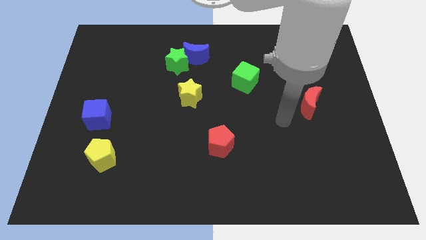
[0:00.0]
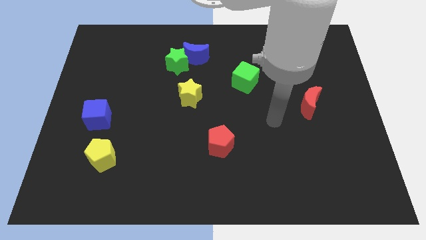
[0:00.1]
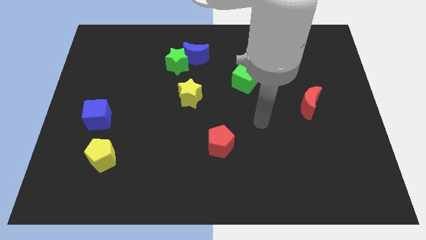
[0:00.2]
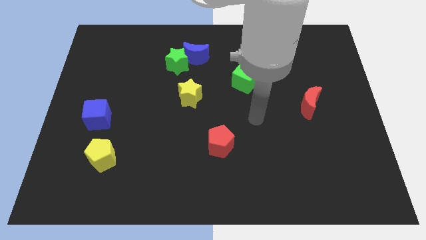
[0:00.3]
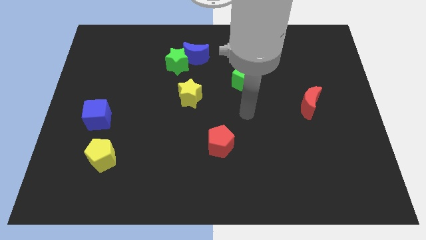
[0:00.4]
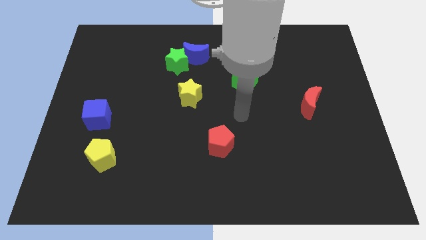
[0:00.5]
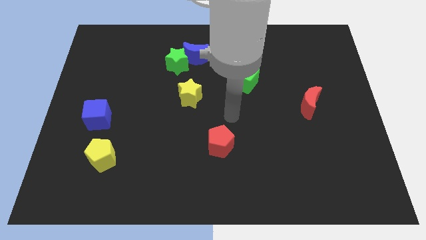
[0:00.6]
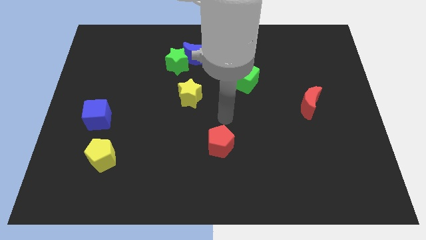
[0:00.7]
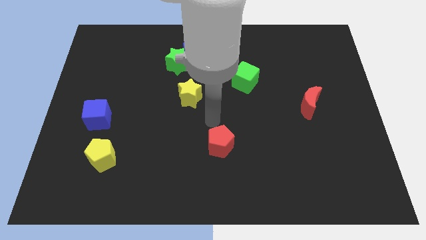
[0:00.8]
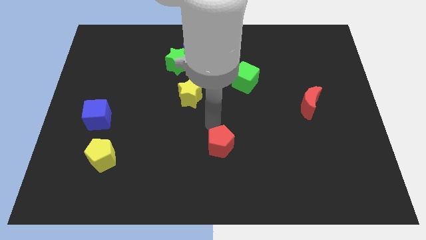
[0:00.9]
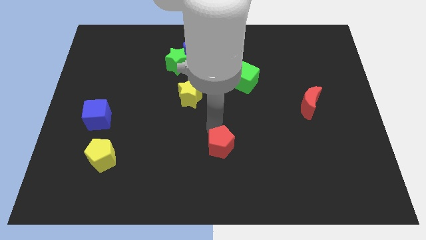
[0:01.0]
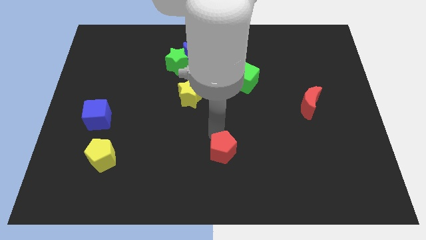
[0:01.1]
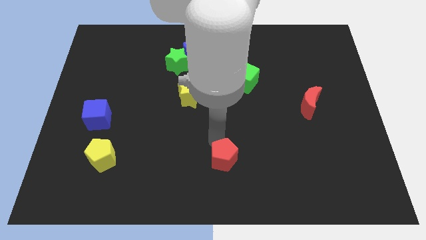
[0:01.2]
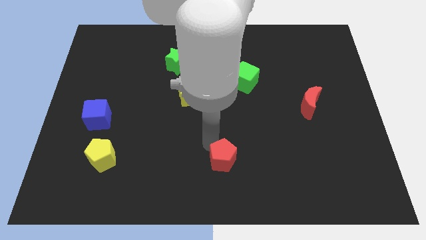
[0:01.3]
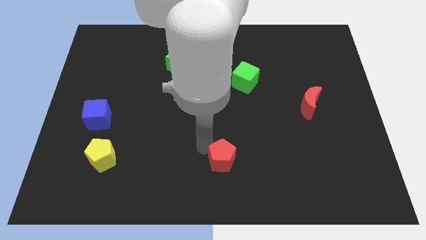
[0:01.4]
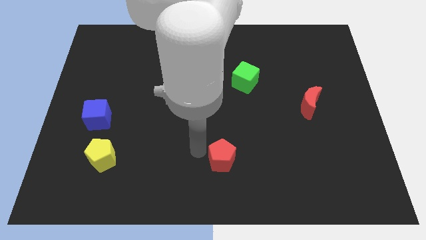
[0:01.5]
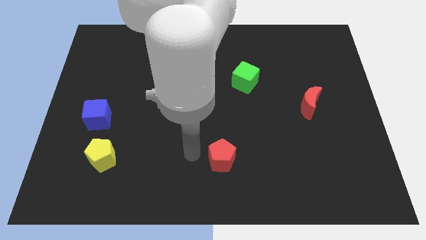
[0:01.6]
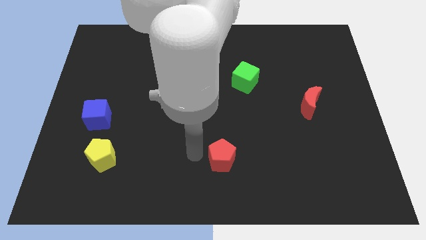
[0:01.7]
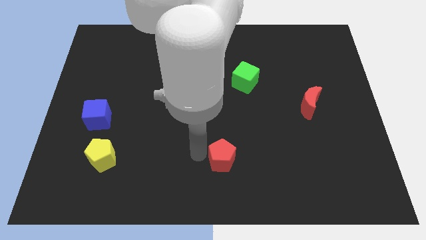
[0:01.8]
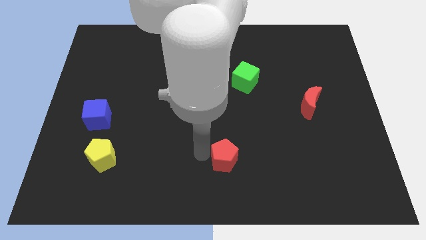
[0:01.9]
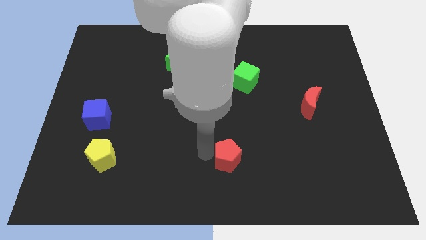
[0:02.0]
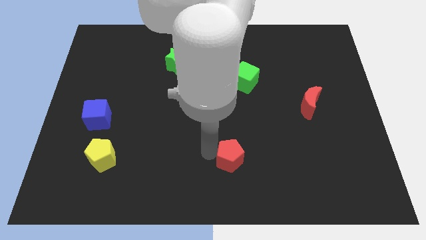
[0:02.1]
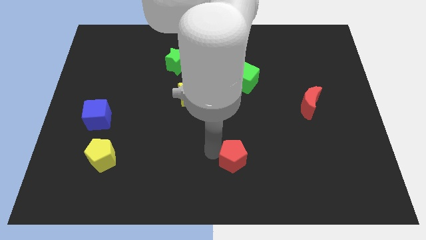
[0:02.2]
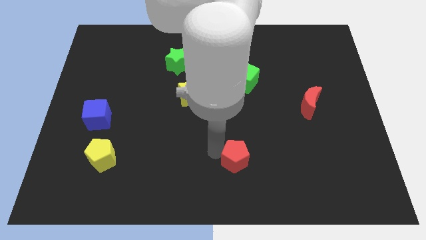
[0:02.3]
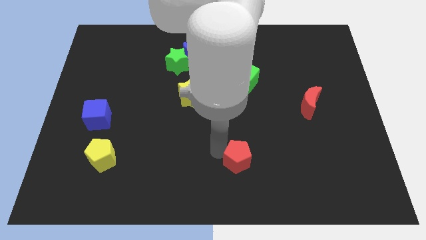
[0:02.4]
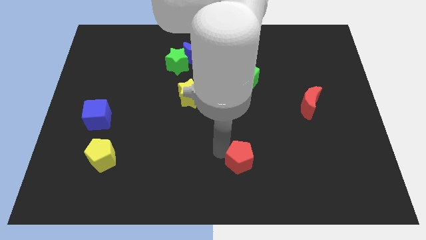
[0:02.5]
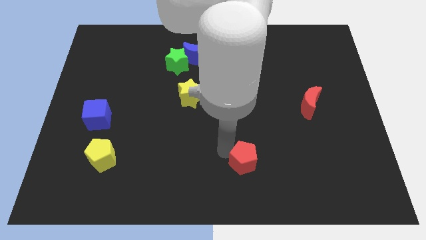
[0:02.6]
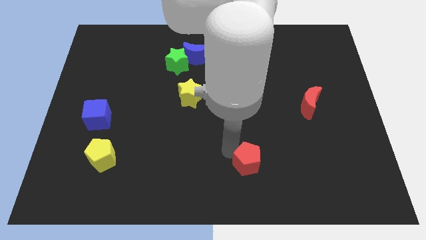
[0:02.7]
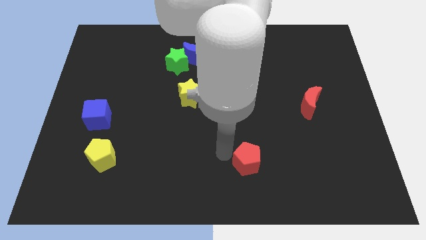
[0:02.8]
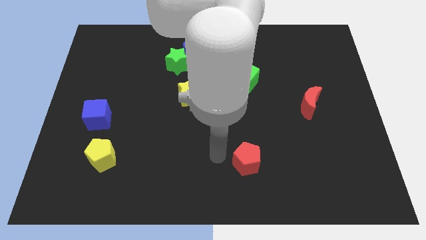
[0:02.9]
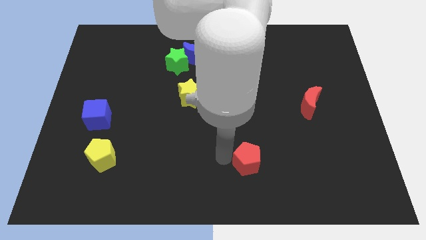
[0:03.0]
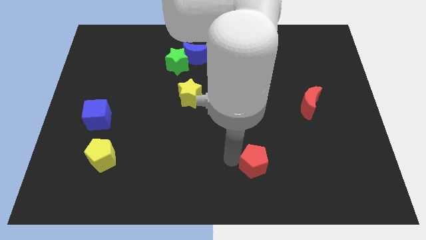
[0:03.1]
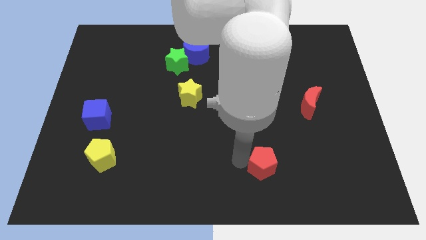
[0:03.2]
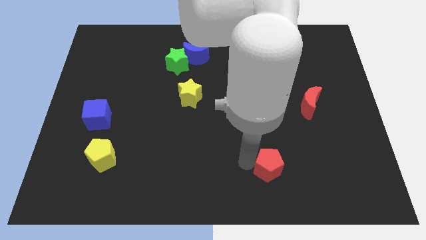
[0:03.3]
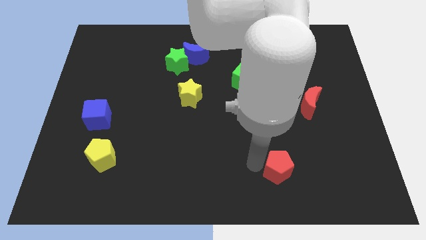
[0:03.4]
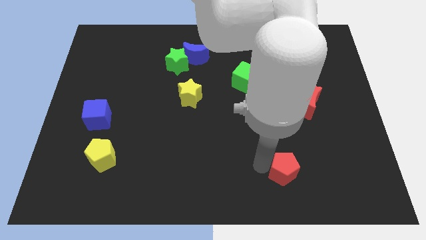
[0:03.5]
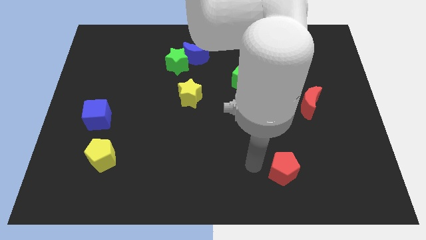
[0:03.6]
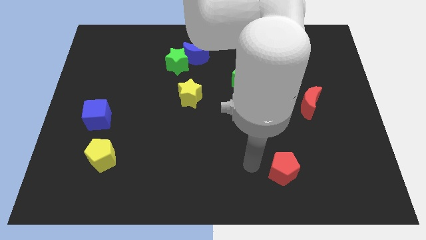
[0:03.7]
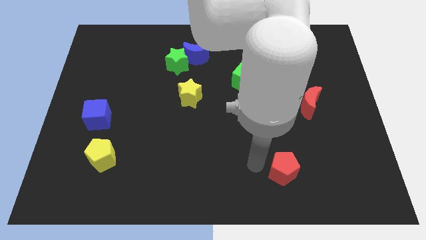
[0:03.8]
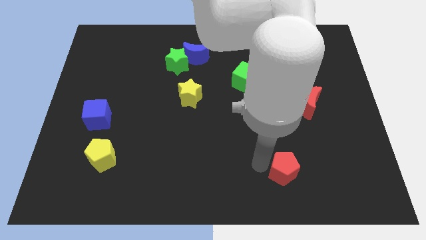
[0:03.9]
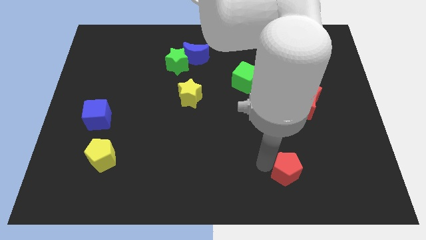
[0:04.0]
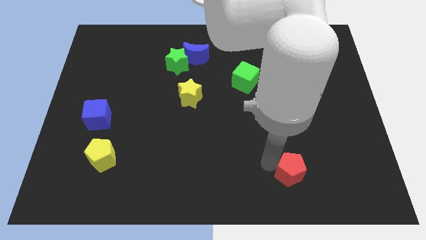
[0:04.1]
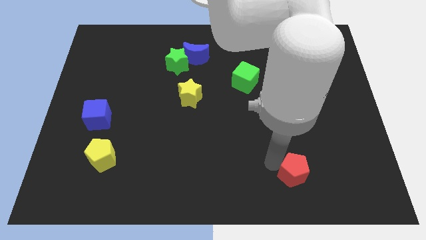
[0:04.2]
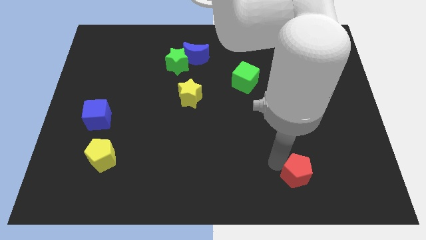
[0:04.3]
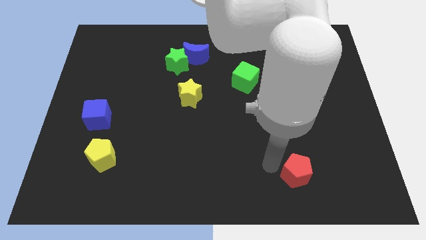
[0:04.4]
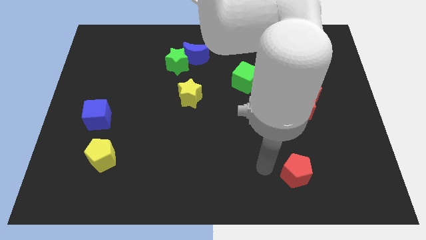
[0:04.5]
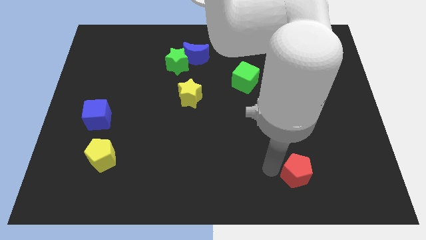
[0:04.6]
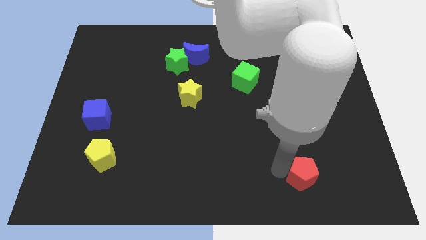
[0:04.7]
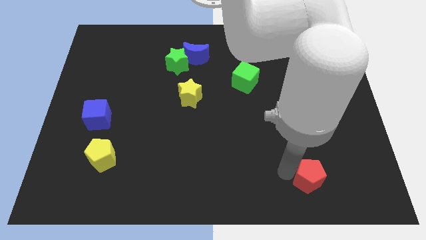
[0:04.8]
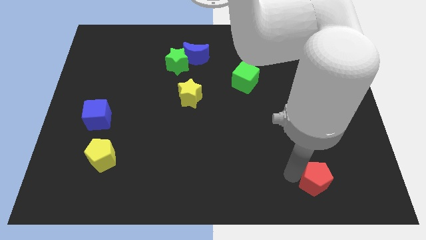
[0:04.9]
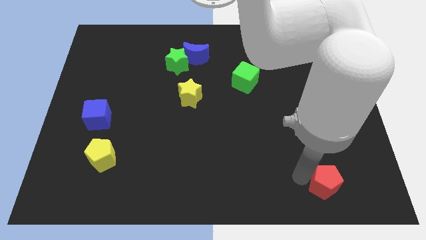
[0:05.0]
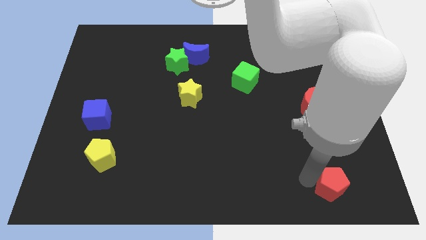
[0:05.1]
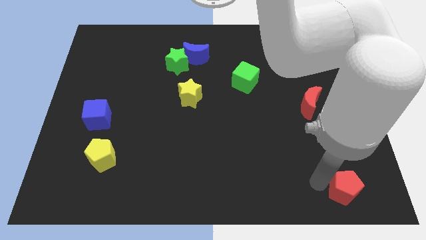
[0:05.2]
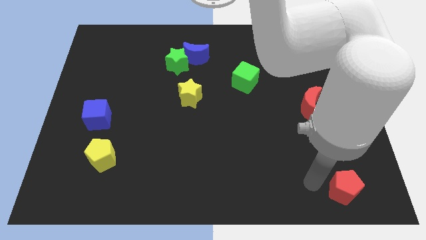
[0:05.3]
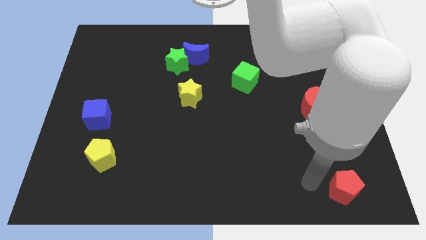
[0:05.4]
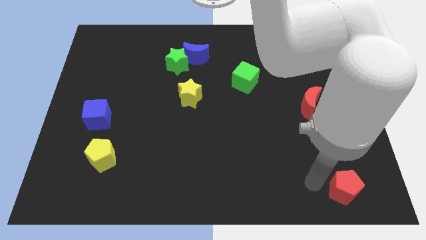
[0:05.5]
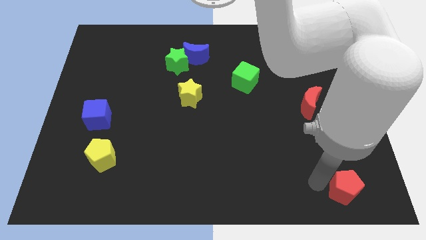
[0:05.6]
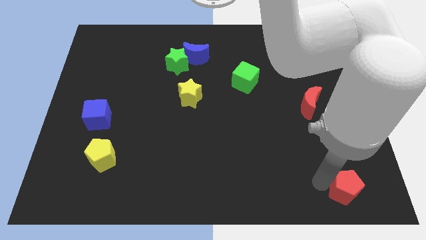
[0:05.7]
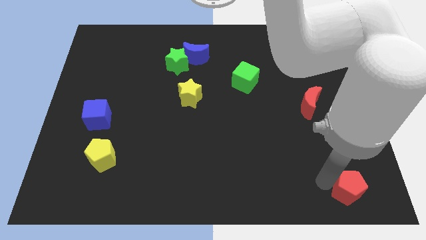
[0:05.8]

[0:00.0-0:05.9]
push the red pentagon to the lower right corner
